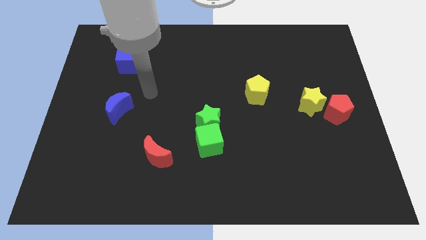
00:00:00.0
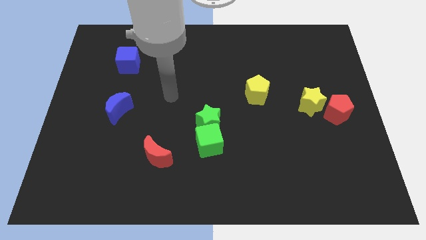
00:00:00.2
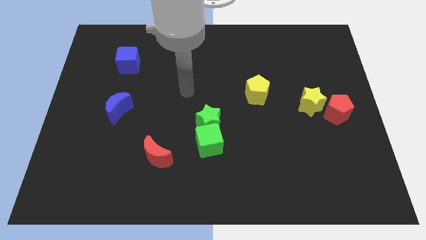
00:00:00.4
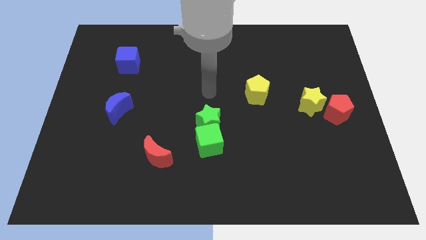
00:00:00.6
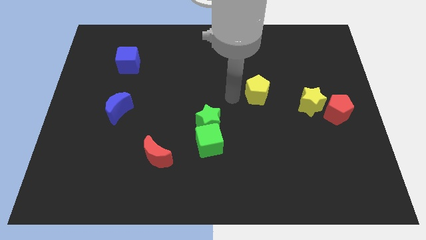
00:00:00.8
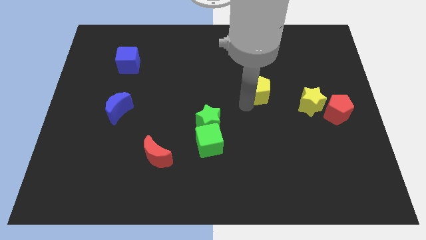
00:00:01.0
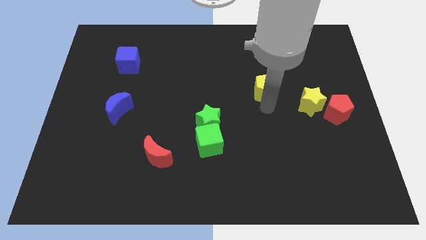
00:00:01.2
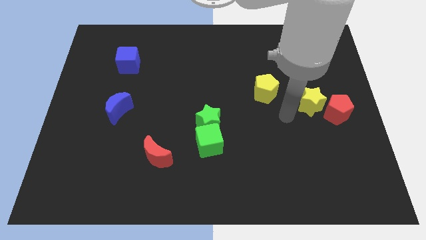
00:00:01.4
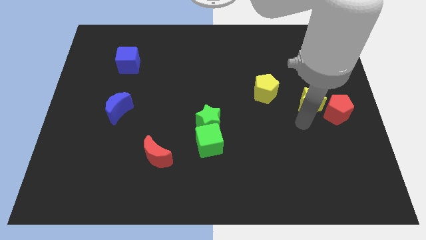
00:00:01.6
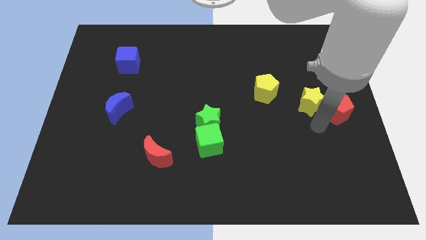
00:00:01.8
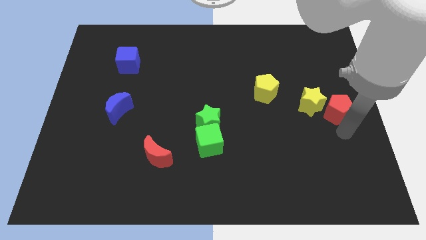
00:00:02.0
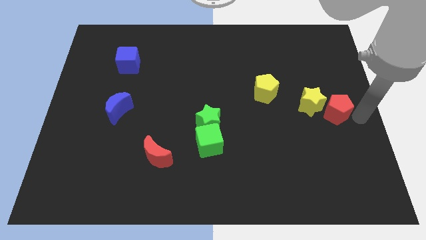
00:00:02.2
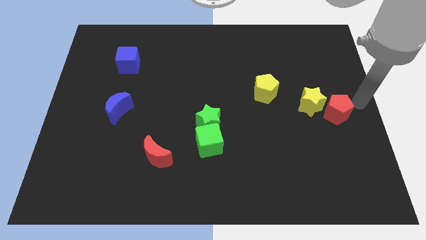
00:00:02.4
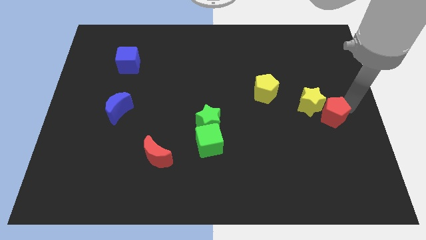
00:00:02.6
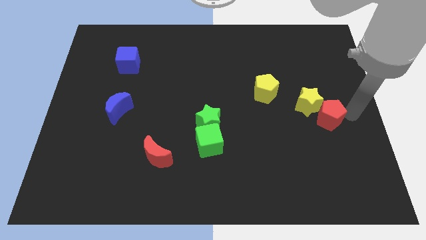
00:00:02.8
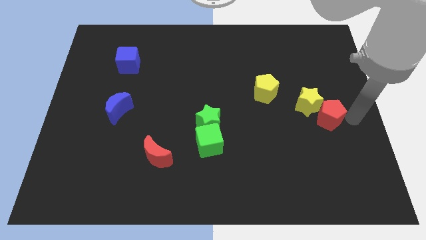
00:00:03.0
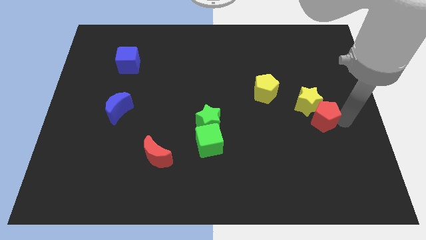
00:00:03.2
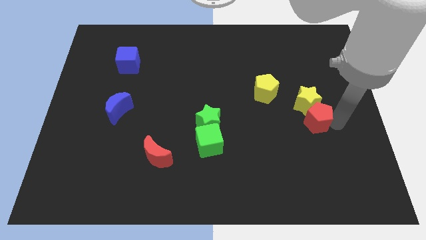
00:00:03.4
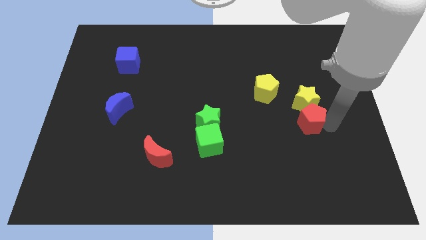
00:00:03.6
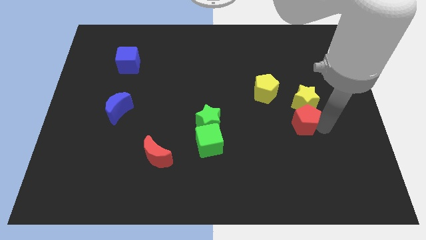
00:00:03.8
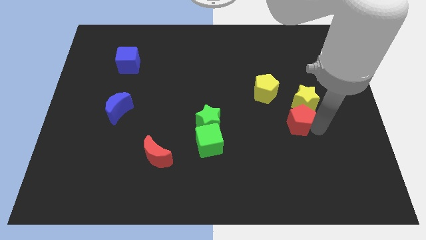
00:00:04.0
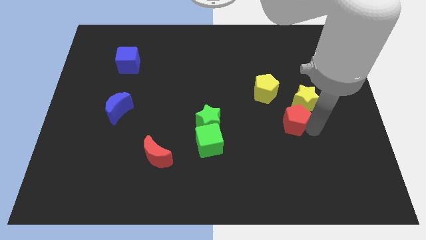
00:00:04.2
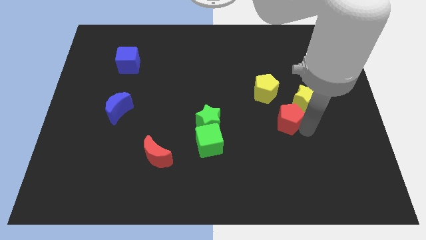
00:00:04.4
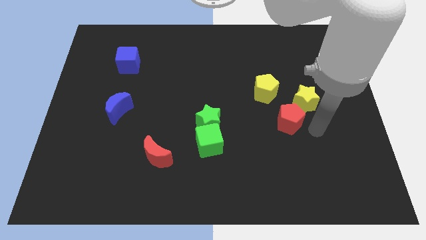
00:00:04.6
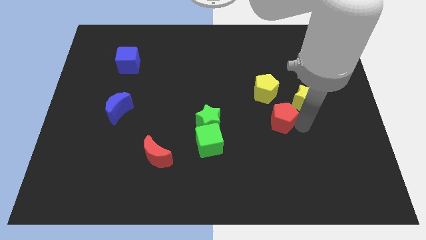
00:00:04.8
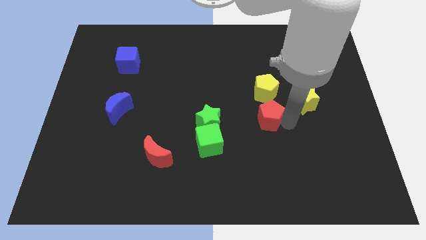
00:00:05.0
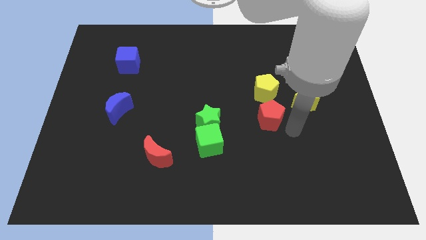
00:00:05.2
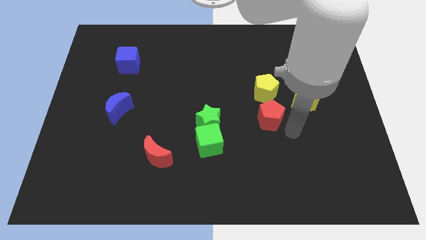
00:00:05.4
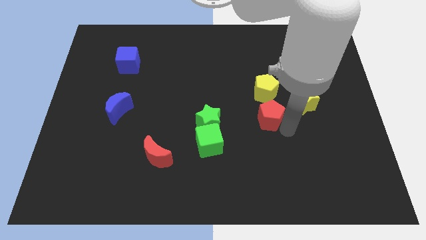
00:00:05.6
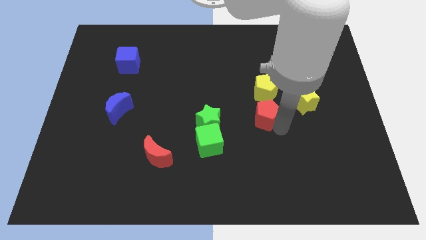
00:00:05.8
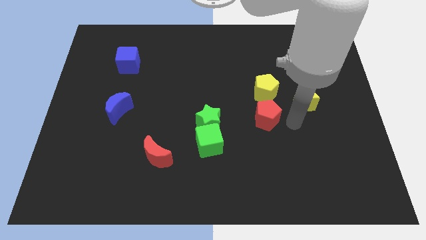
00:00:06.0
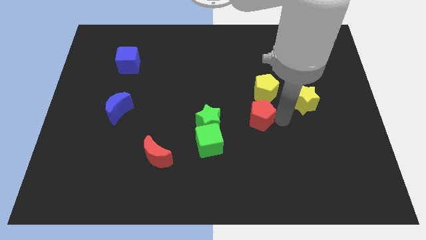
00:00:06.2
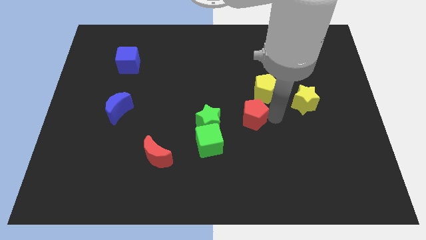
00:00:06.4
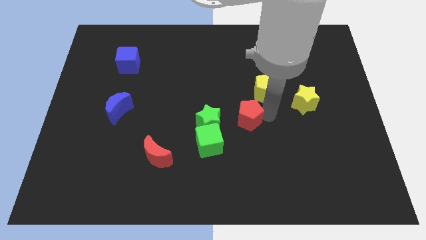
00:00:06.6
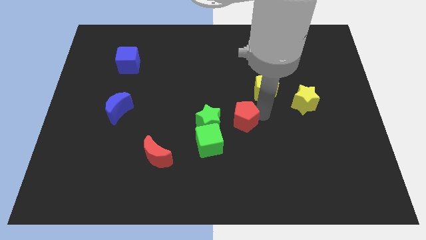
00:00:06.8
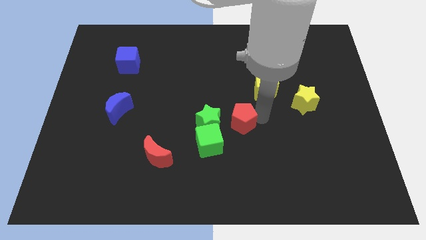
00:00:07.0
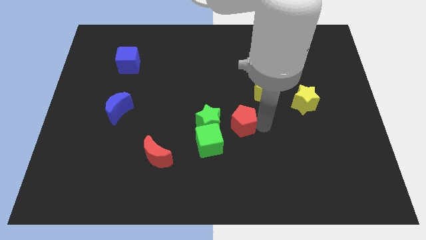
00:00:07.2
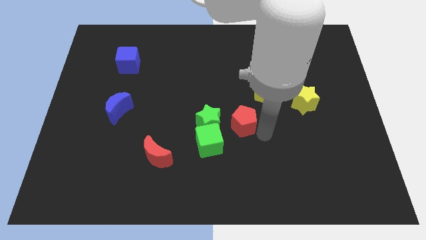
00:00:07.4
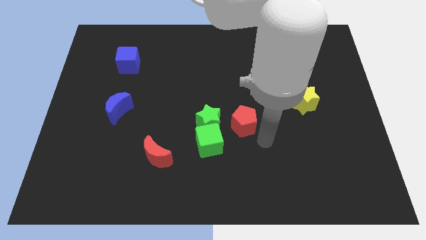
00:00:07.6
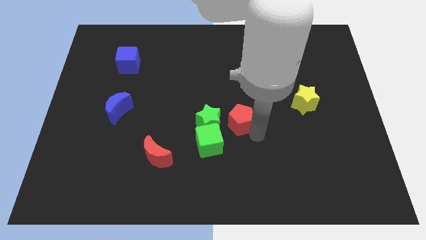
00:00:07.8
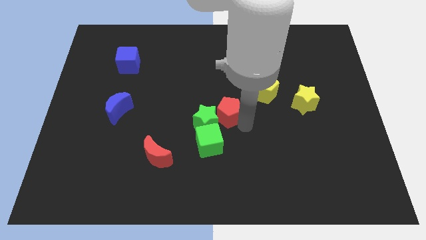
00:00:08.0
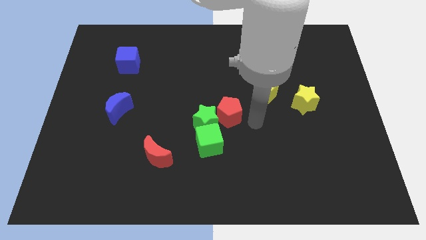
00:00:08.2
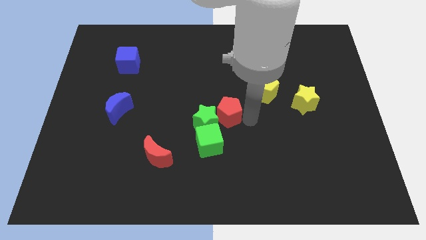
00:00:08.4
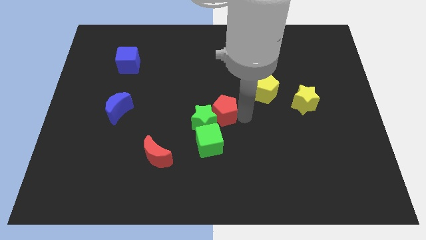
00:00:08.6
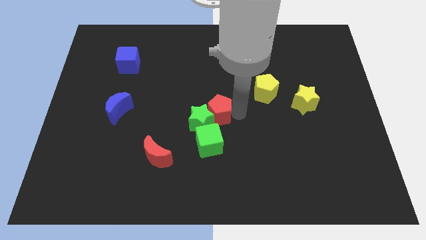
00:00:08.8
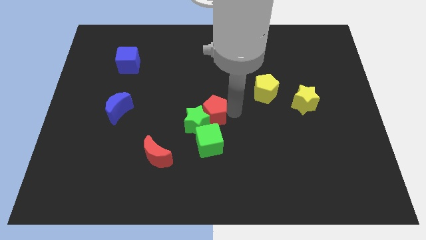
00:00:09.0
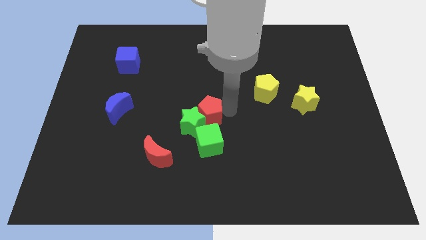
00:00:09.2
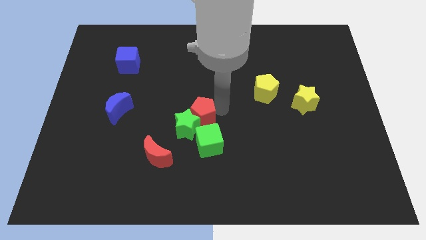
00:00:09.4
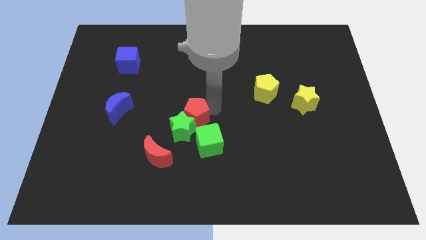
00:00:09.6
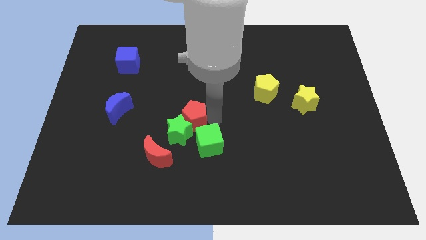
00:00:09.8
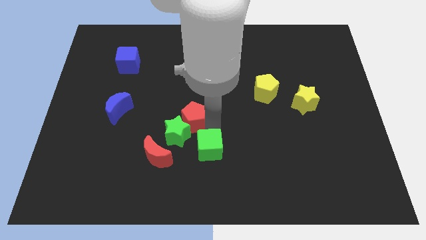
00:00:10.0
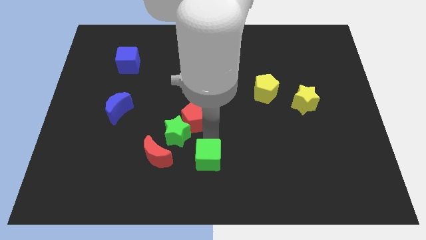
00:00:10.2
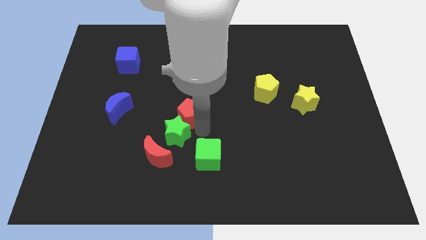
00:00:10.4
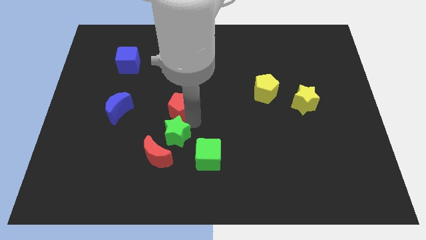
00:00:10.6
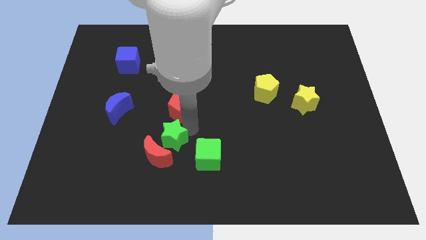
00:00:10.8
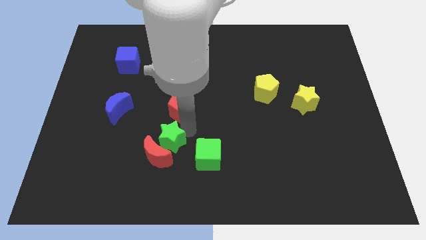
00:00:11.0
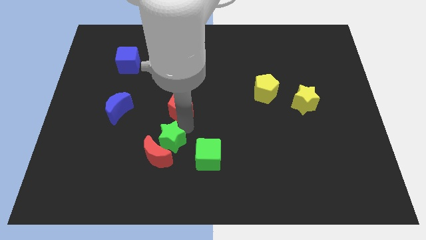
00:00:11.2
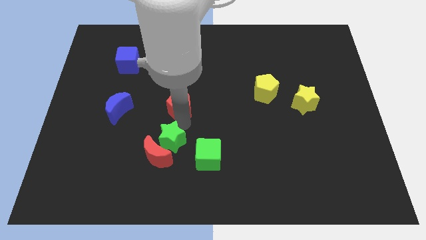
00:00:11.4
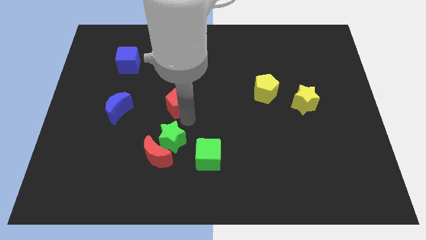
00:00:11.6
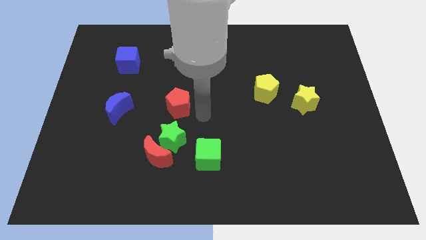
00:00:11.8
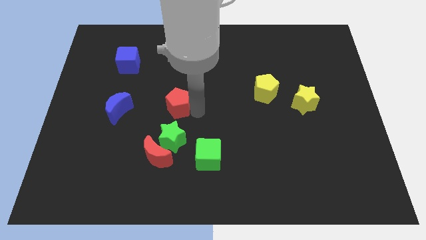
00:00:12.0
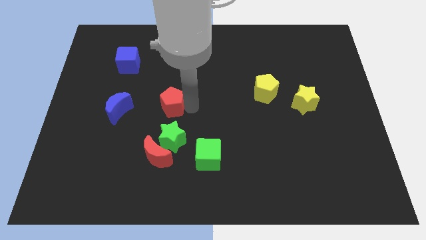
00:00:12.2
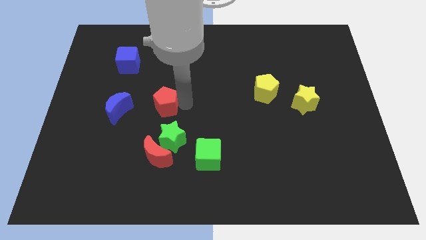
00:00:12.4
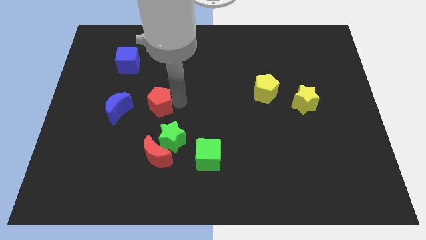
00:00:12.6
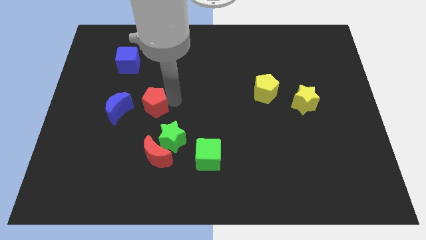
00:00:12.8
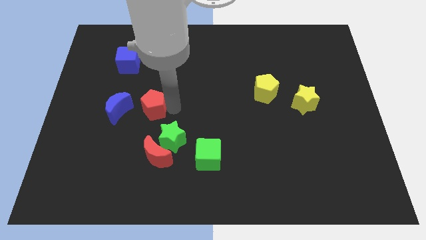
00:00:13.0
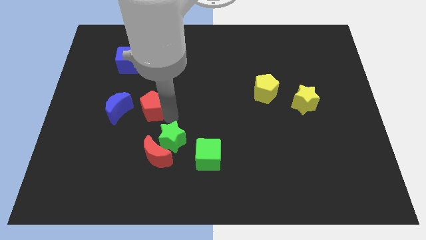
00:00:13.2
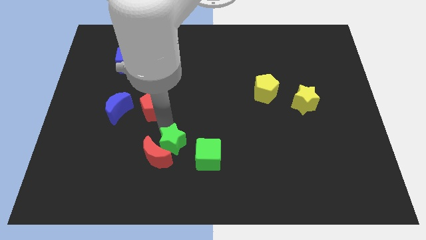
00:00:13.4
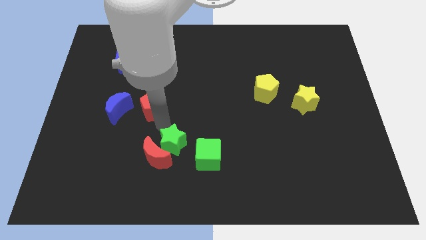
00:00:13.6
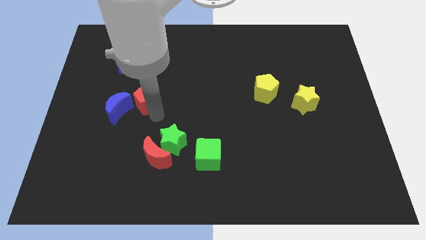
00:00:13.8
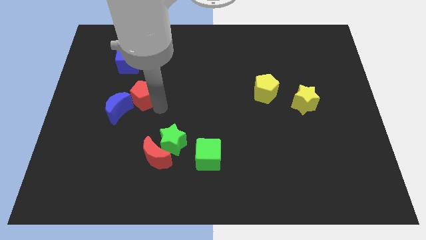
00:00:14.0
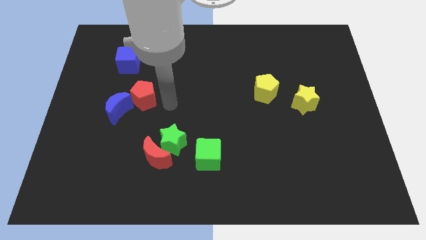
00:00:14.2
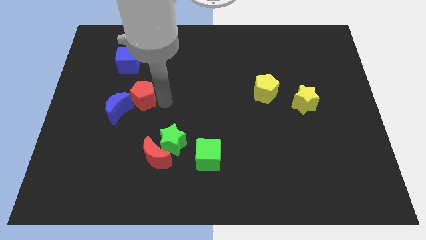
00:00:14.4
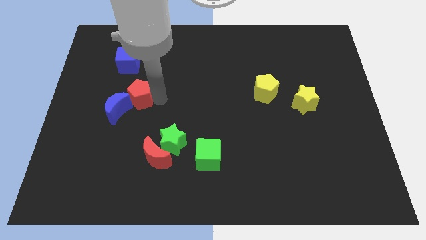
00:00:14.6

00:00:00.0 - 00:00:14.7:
move the red pentagon to the bottom of the blue cube

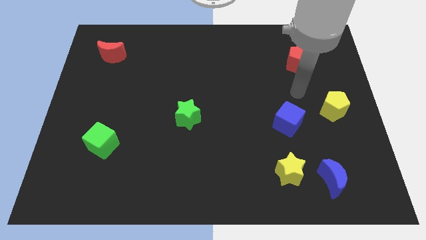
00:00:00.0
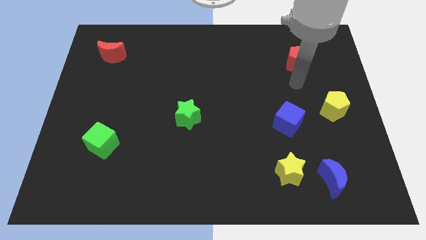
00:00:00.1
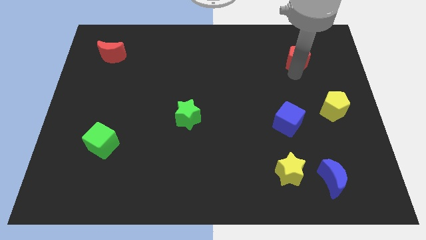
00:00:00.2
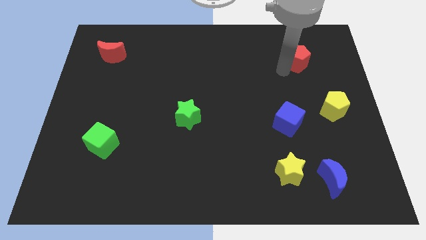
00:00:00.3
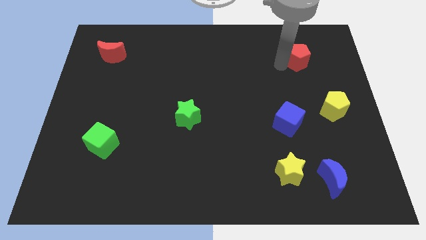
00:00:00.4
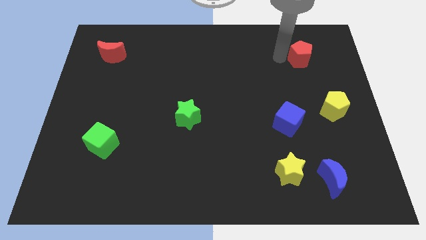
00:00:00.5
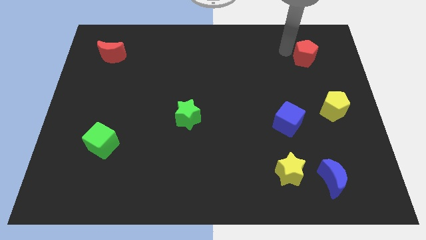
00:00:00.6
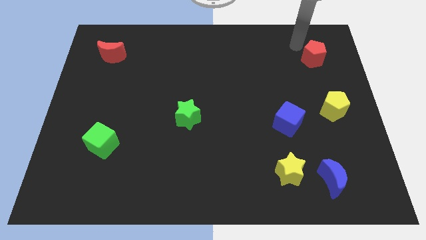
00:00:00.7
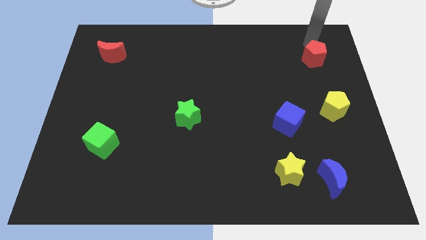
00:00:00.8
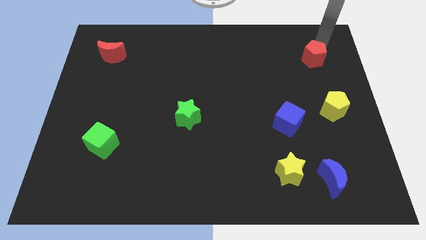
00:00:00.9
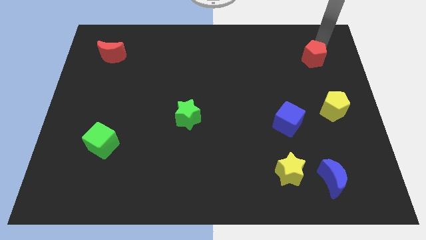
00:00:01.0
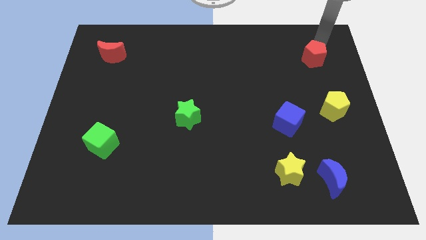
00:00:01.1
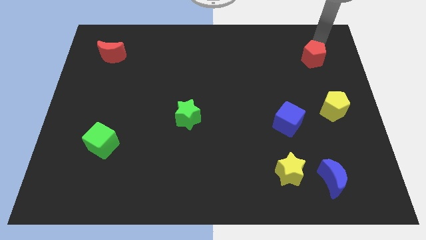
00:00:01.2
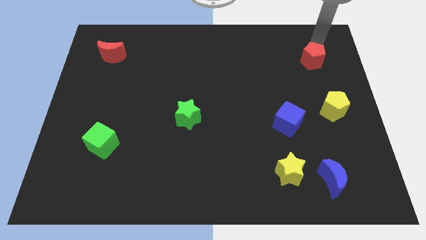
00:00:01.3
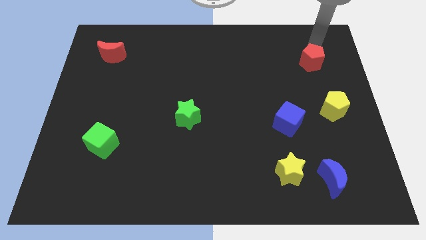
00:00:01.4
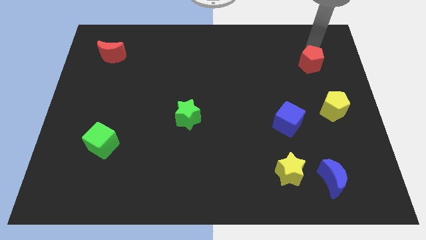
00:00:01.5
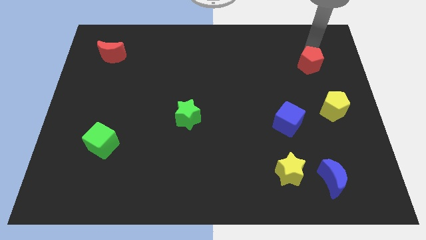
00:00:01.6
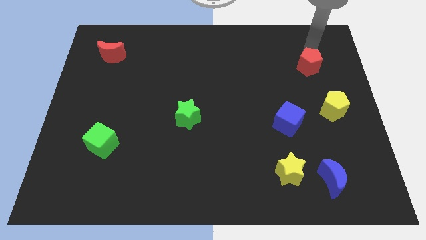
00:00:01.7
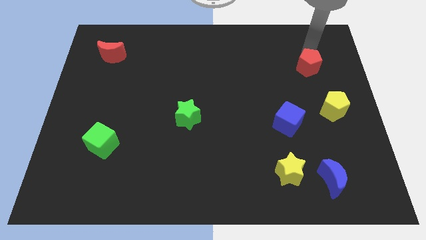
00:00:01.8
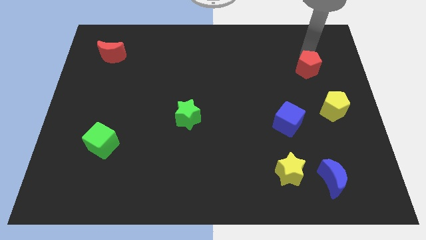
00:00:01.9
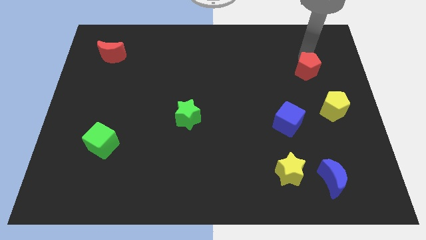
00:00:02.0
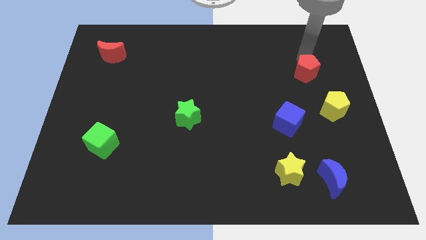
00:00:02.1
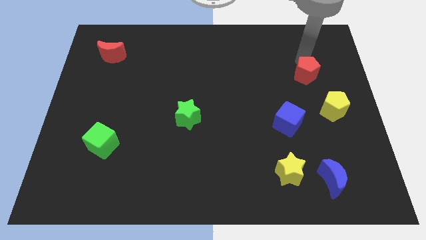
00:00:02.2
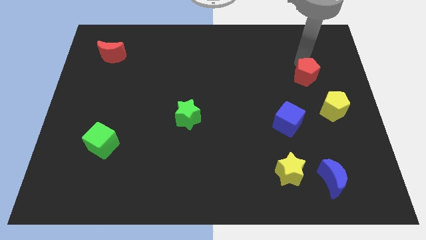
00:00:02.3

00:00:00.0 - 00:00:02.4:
move the red pentagon to the top left of the yellow pentagon
